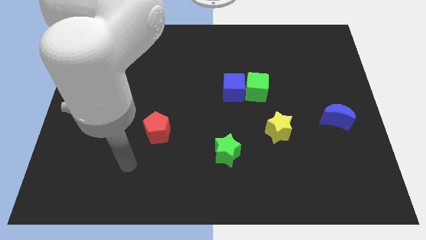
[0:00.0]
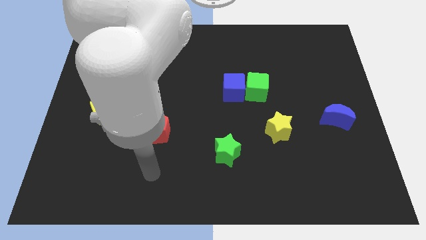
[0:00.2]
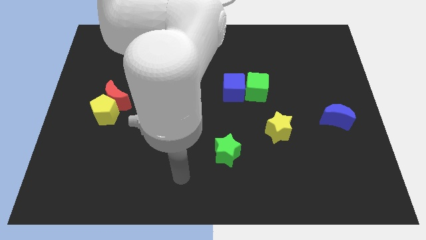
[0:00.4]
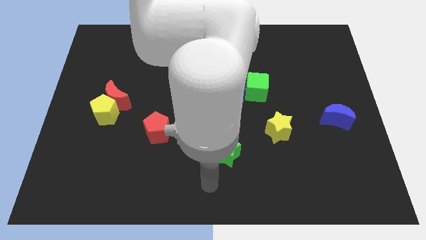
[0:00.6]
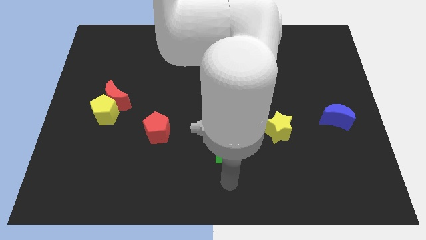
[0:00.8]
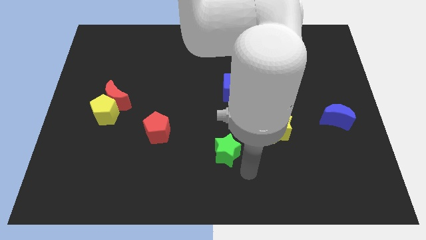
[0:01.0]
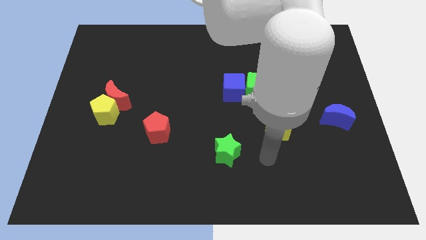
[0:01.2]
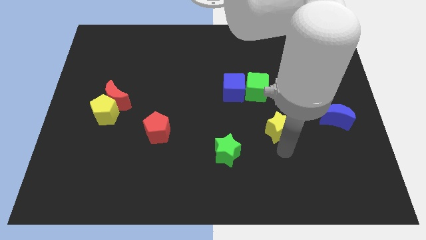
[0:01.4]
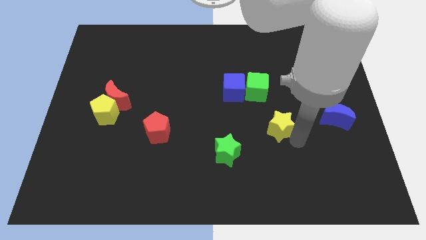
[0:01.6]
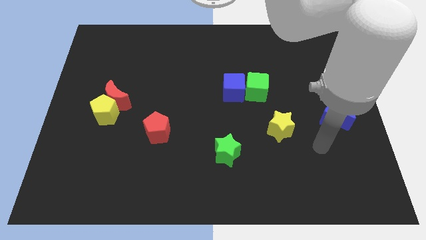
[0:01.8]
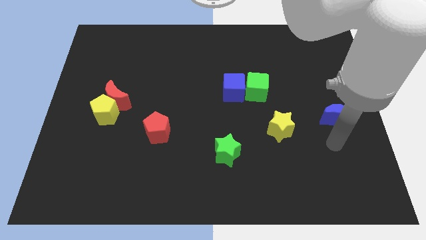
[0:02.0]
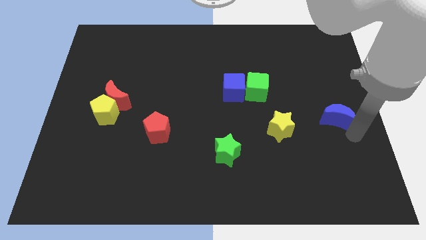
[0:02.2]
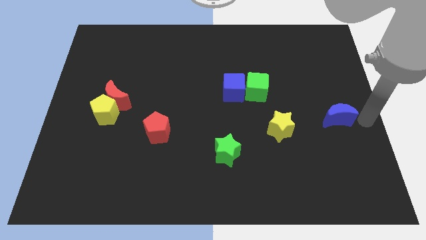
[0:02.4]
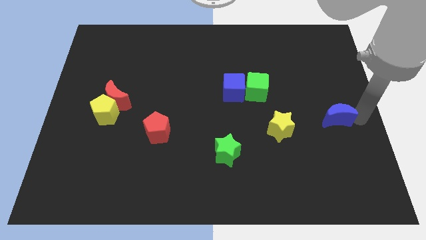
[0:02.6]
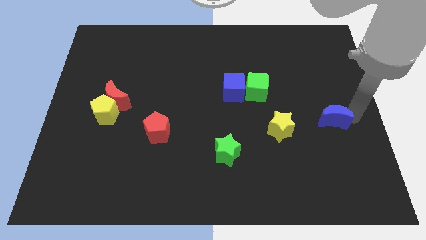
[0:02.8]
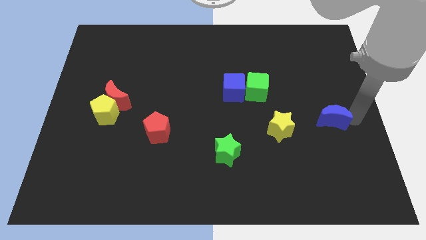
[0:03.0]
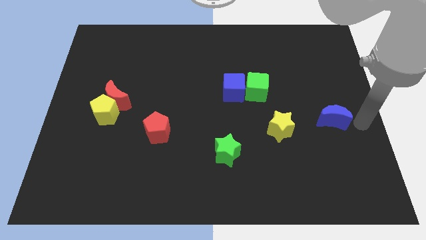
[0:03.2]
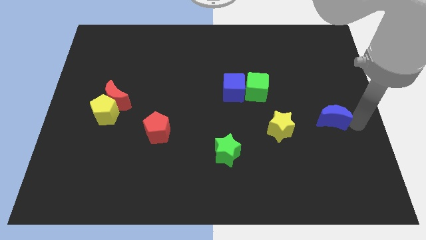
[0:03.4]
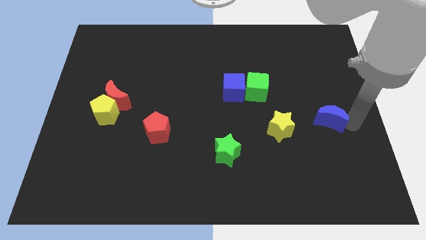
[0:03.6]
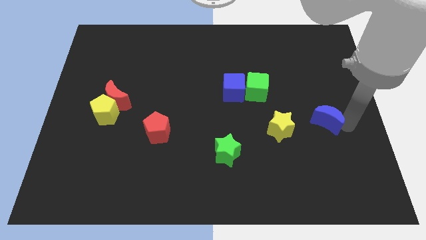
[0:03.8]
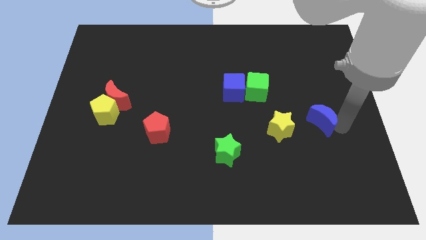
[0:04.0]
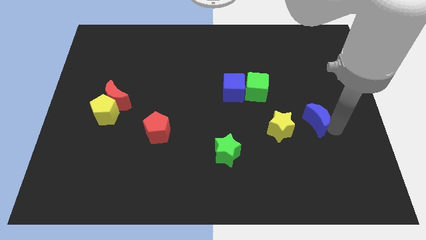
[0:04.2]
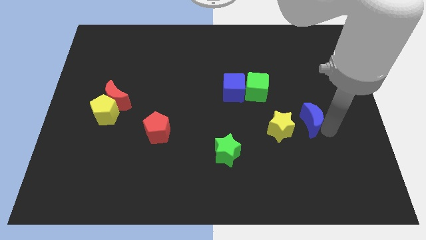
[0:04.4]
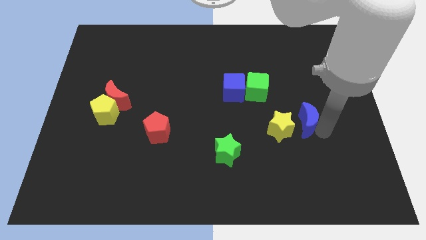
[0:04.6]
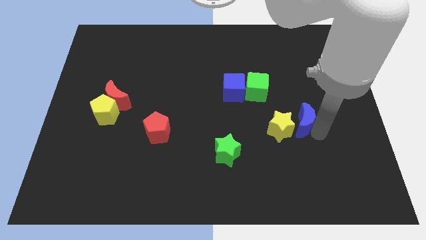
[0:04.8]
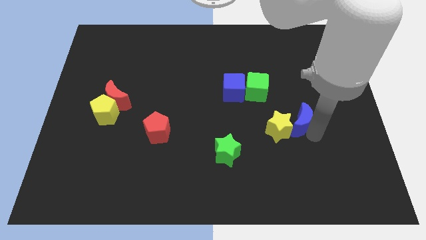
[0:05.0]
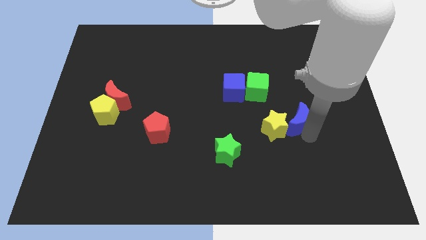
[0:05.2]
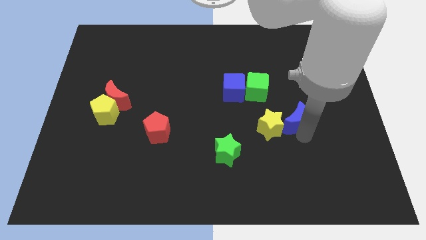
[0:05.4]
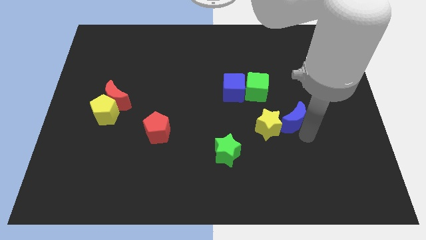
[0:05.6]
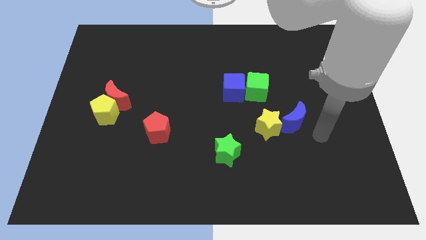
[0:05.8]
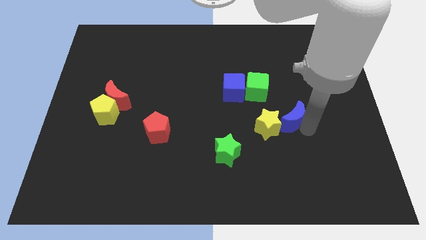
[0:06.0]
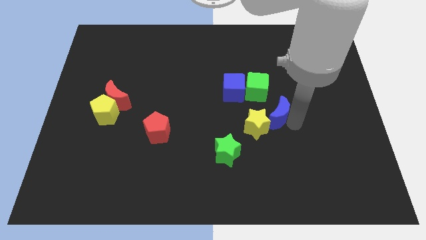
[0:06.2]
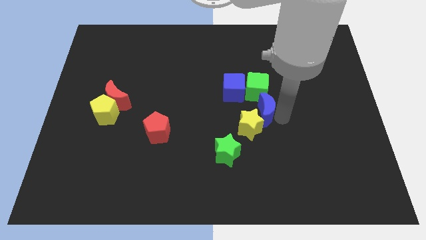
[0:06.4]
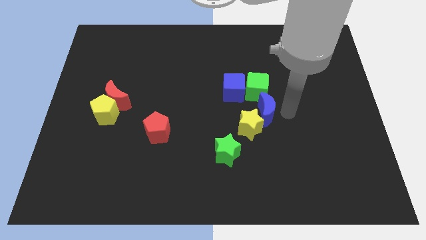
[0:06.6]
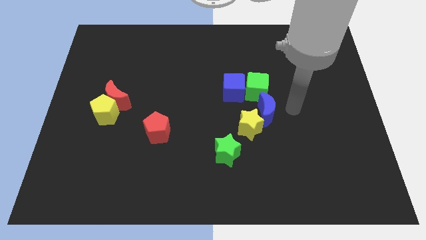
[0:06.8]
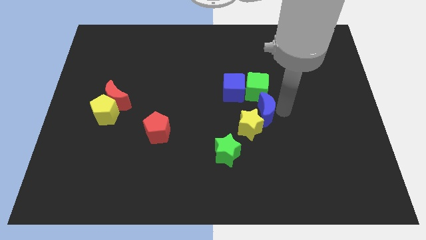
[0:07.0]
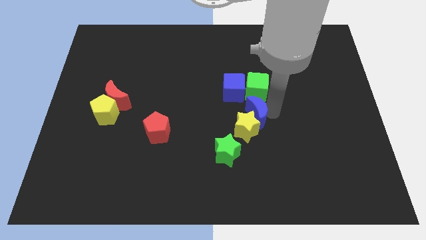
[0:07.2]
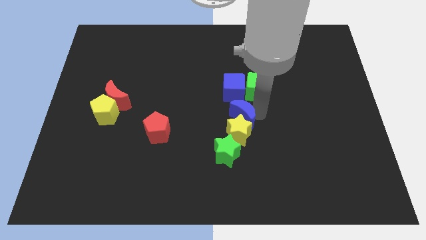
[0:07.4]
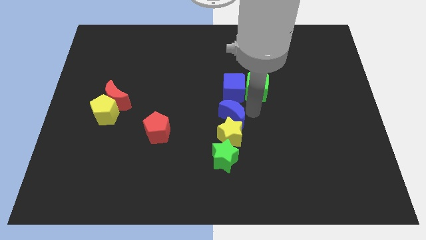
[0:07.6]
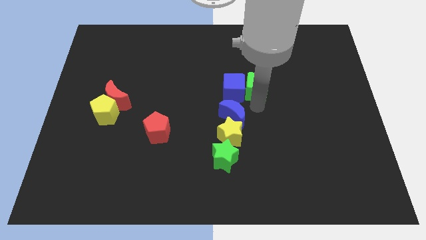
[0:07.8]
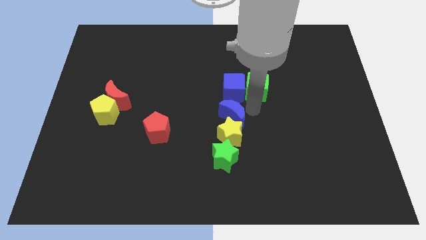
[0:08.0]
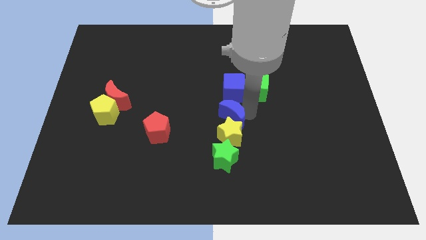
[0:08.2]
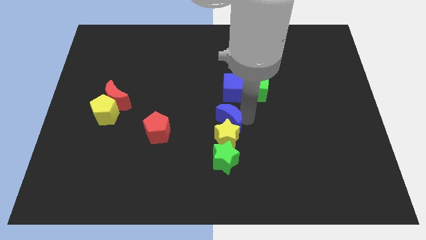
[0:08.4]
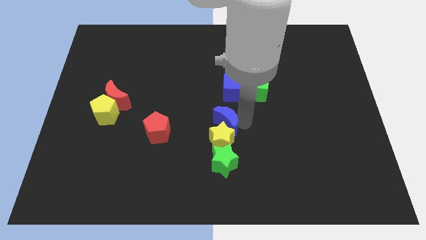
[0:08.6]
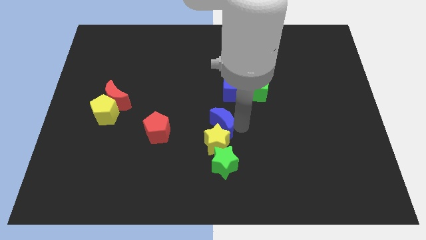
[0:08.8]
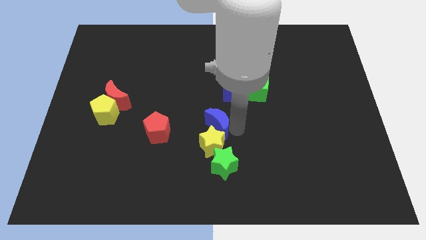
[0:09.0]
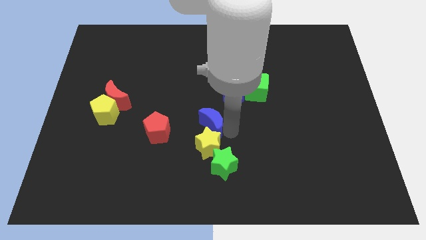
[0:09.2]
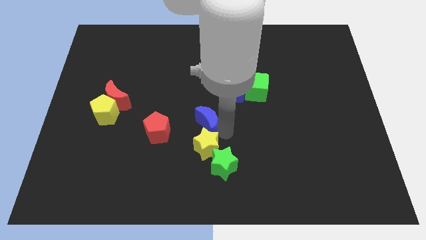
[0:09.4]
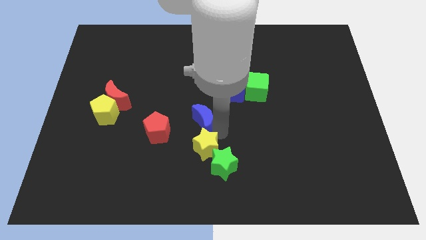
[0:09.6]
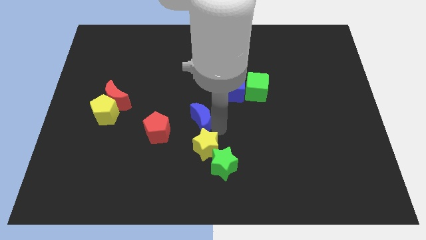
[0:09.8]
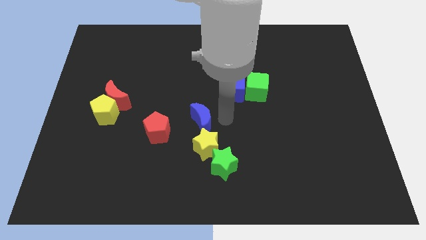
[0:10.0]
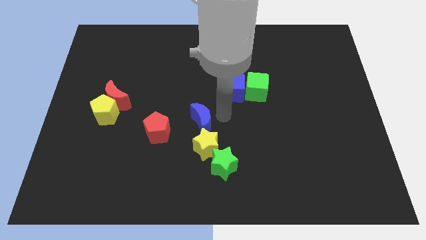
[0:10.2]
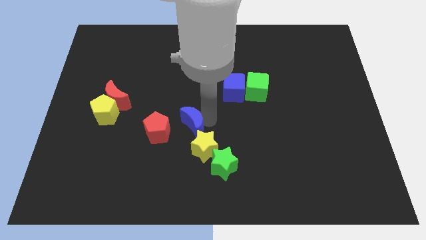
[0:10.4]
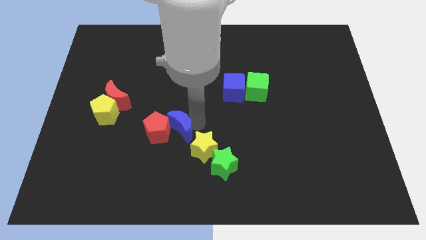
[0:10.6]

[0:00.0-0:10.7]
put the blue moon to the red pentagon

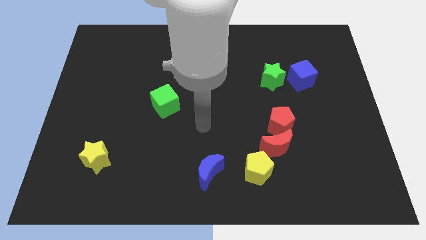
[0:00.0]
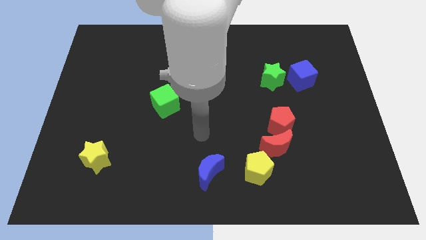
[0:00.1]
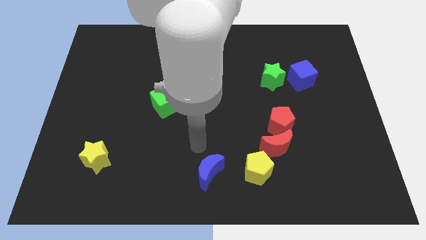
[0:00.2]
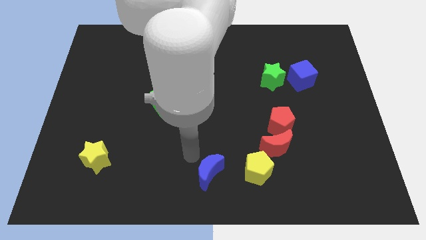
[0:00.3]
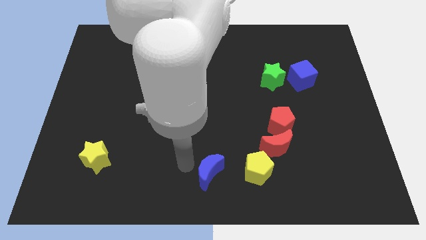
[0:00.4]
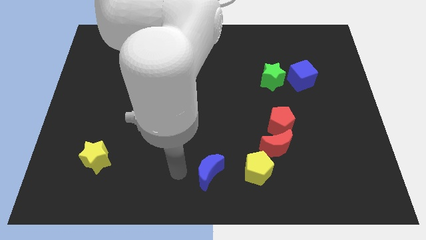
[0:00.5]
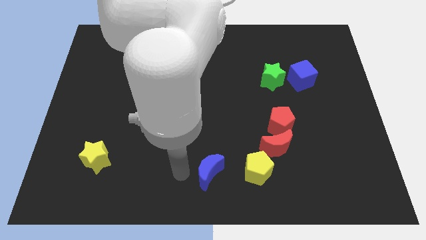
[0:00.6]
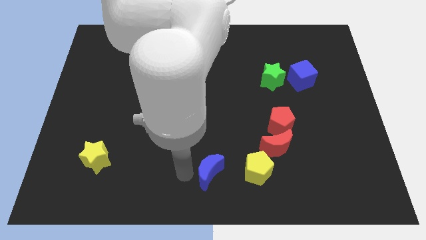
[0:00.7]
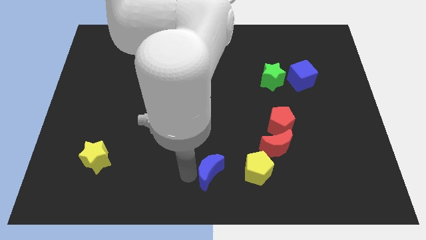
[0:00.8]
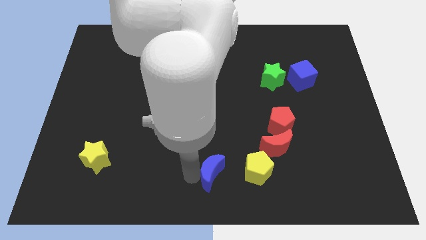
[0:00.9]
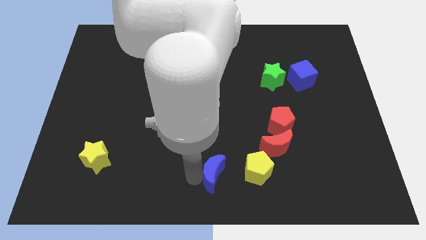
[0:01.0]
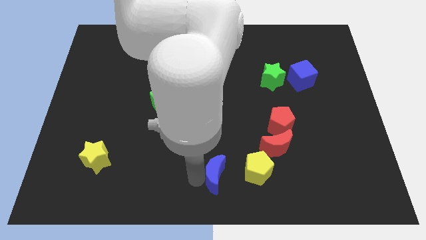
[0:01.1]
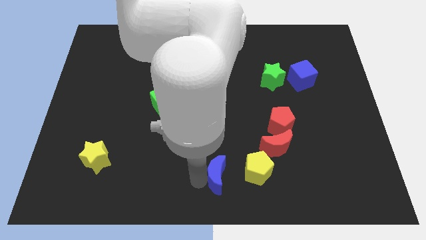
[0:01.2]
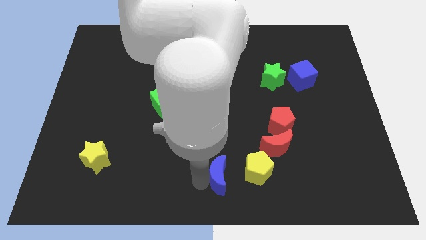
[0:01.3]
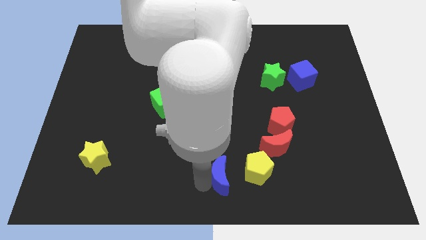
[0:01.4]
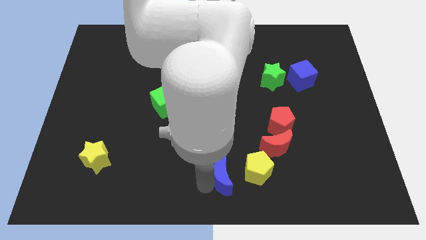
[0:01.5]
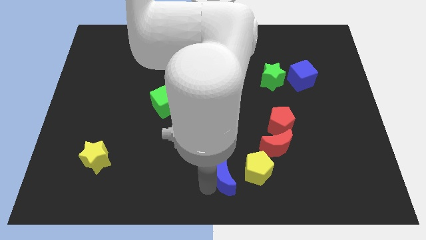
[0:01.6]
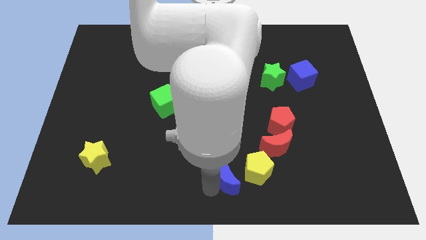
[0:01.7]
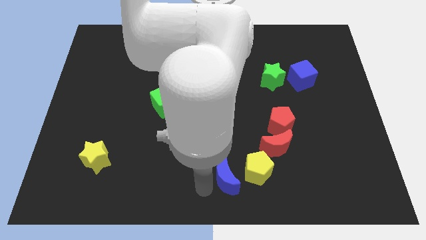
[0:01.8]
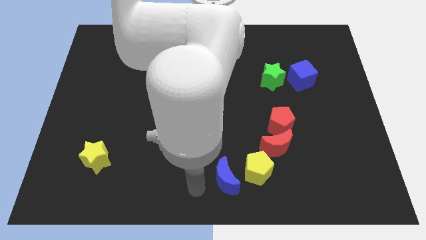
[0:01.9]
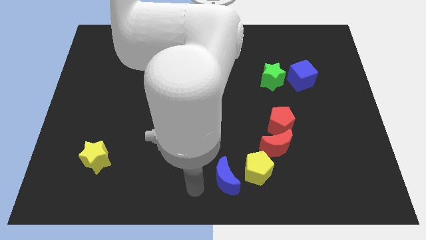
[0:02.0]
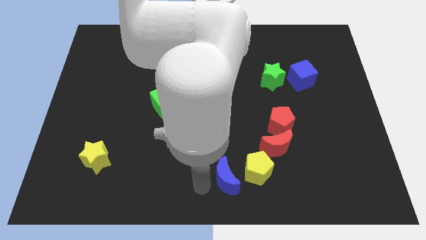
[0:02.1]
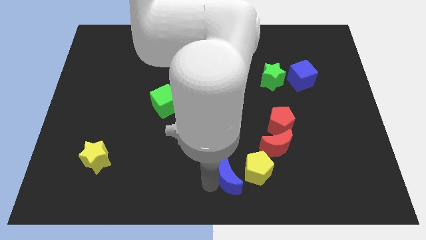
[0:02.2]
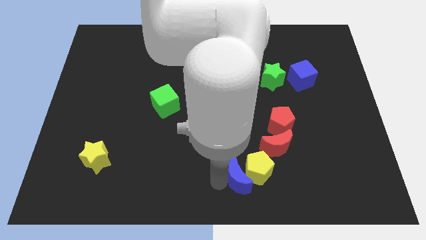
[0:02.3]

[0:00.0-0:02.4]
slide the blue moon close to the yellow pentagon
